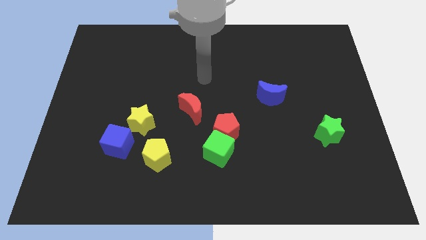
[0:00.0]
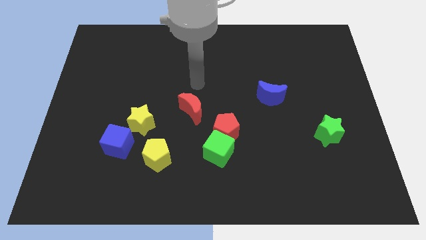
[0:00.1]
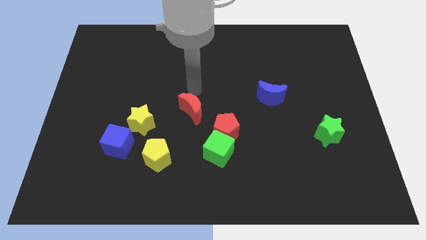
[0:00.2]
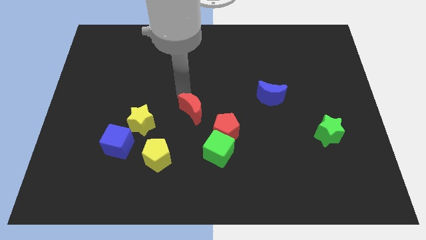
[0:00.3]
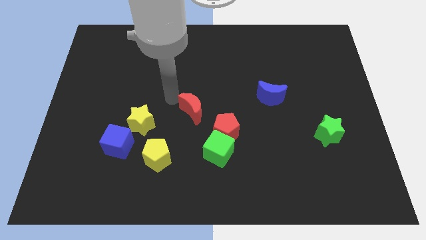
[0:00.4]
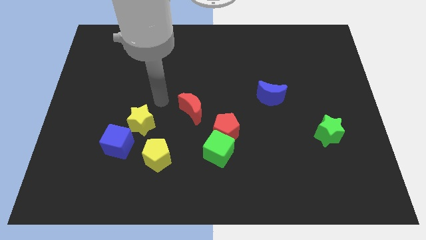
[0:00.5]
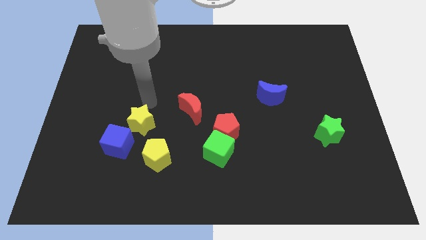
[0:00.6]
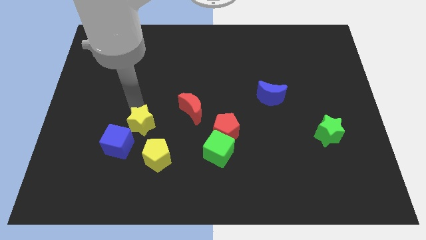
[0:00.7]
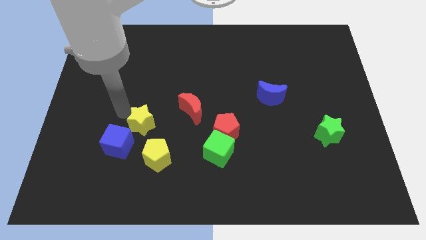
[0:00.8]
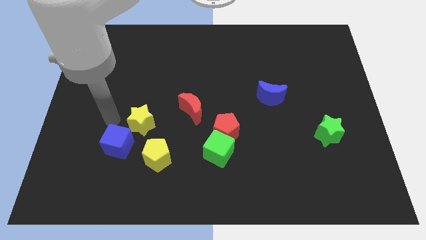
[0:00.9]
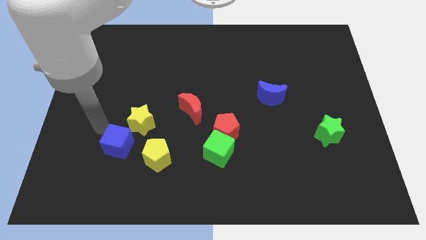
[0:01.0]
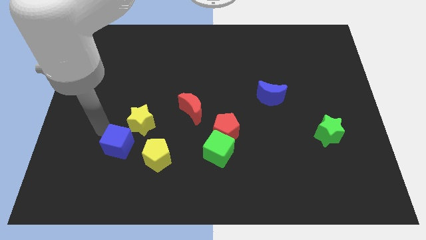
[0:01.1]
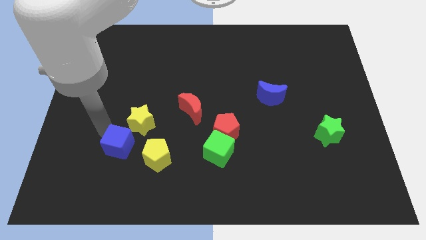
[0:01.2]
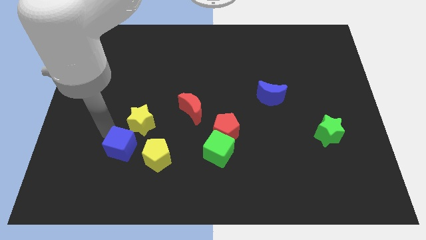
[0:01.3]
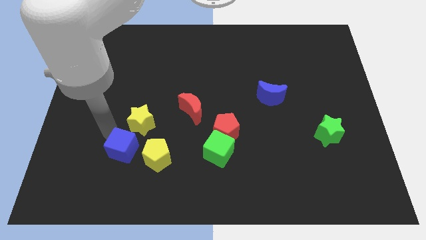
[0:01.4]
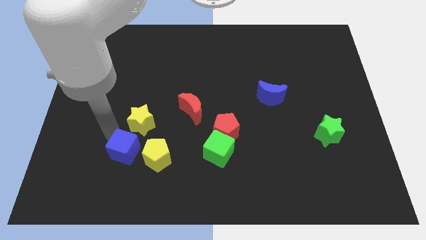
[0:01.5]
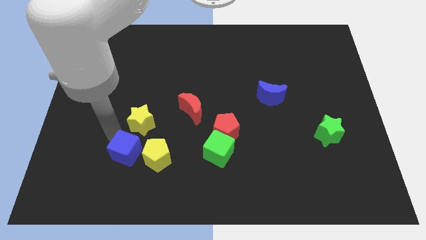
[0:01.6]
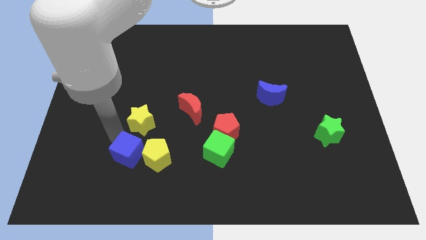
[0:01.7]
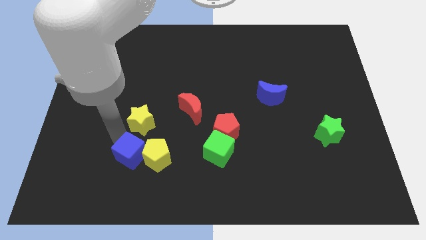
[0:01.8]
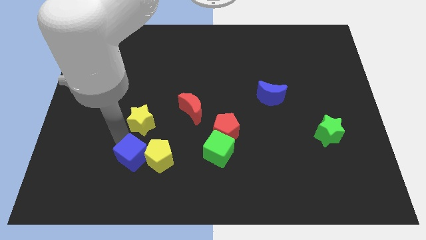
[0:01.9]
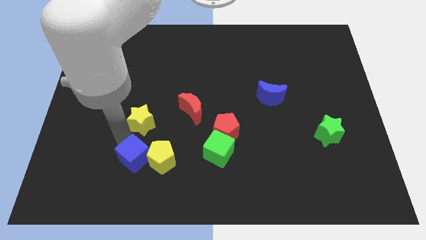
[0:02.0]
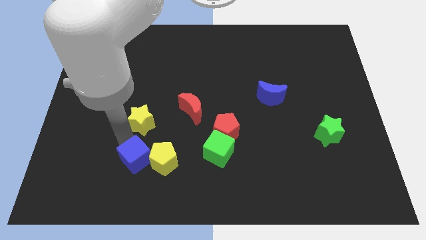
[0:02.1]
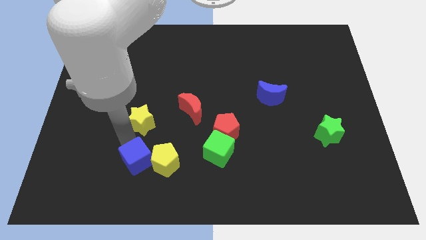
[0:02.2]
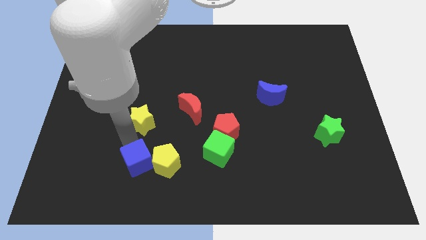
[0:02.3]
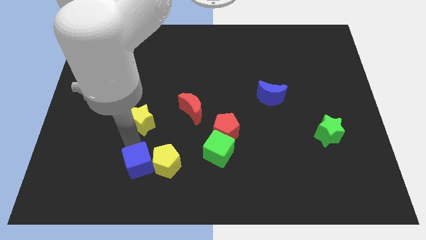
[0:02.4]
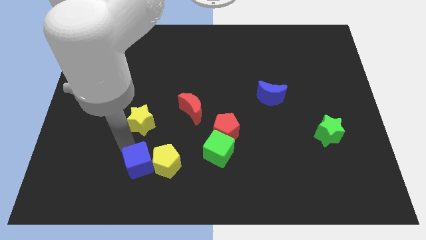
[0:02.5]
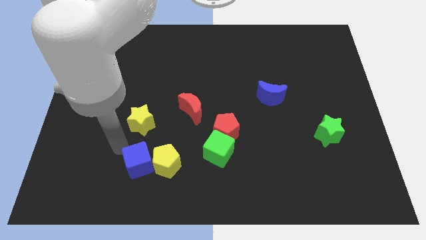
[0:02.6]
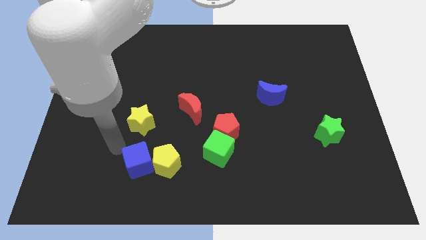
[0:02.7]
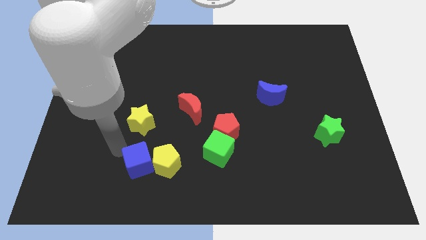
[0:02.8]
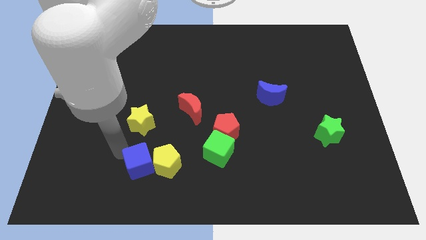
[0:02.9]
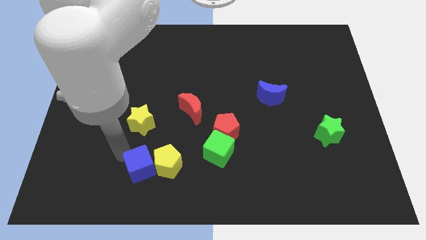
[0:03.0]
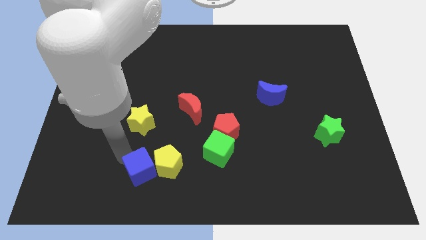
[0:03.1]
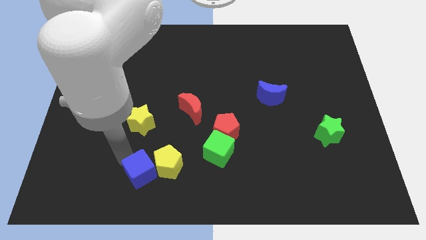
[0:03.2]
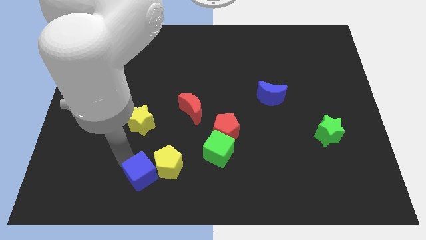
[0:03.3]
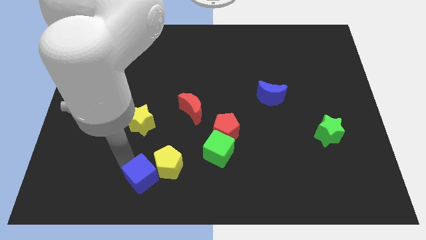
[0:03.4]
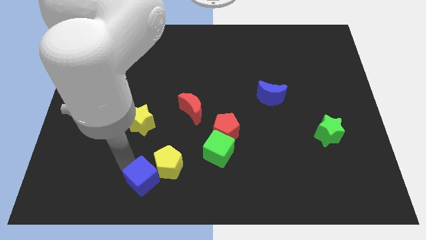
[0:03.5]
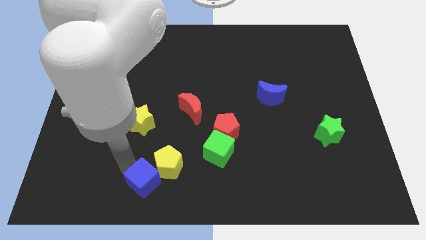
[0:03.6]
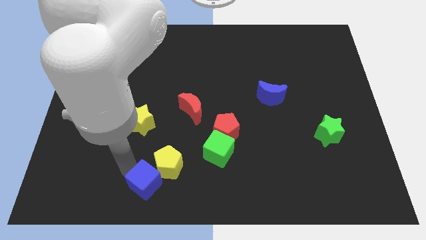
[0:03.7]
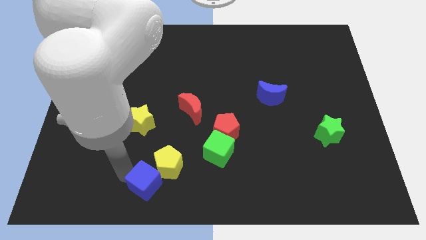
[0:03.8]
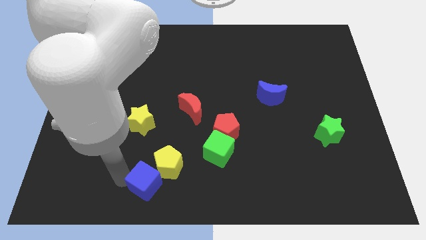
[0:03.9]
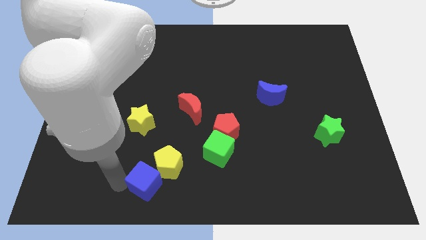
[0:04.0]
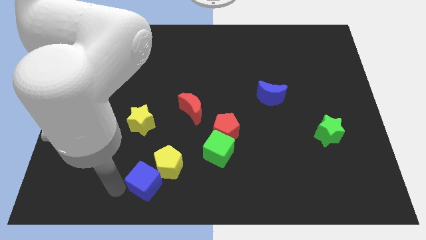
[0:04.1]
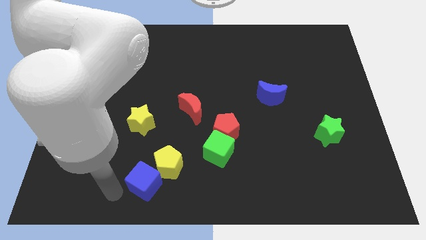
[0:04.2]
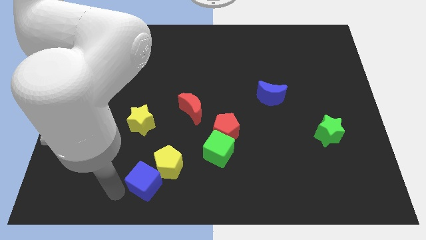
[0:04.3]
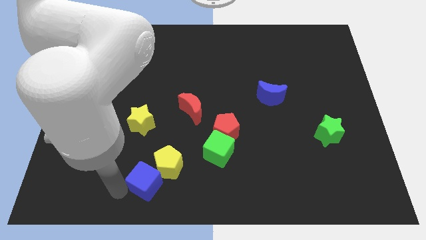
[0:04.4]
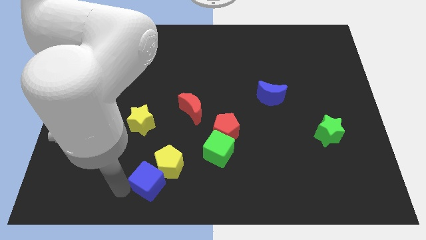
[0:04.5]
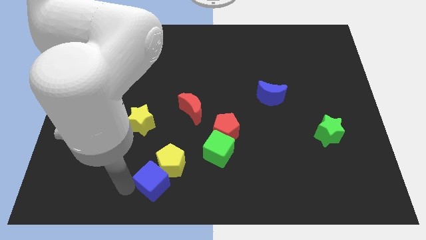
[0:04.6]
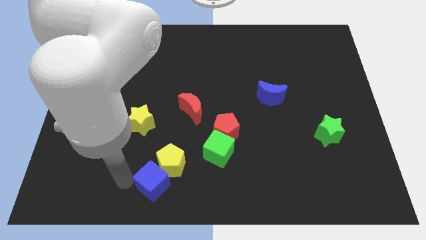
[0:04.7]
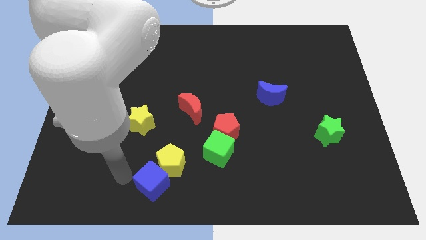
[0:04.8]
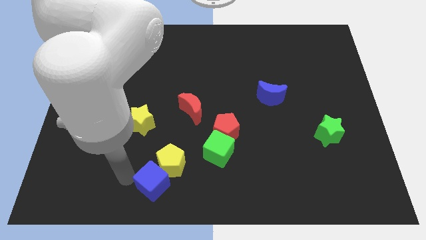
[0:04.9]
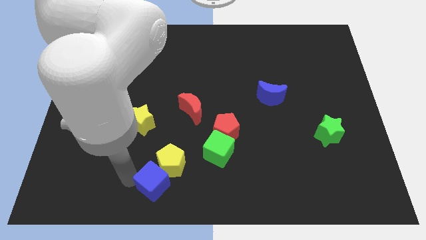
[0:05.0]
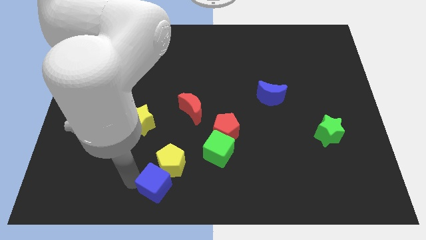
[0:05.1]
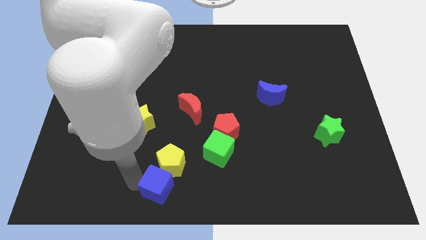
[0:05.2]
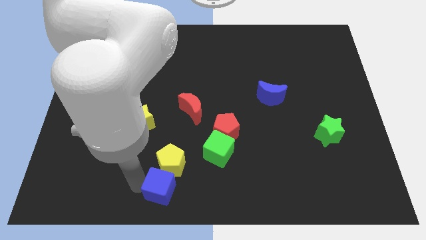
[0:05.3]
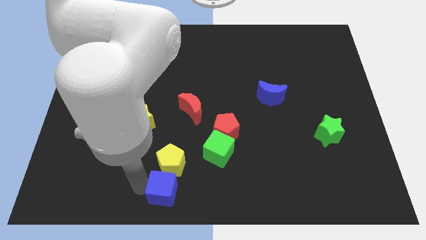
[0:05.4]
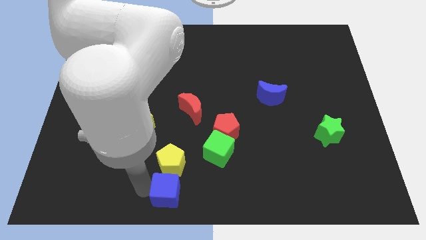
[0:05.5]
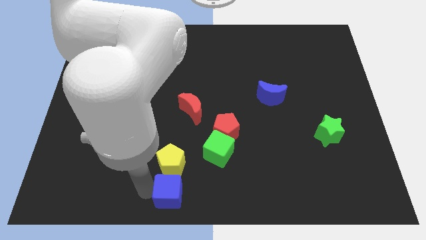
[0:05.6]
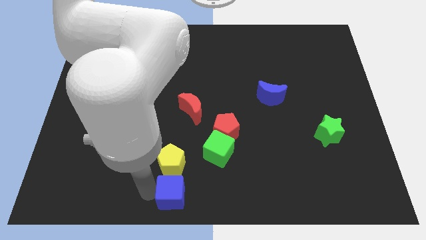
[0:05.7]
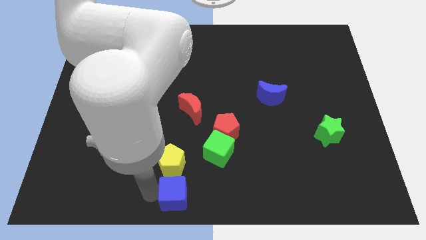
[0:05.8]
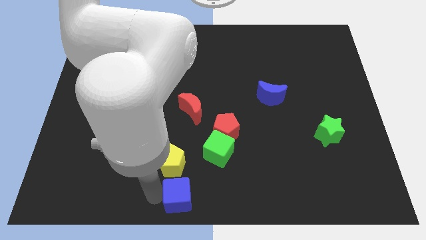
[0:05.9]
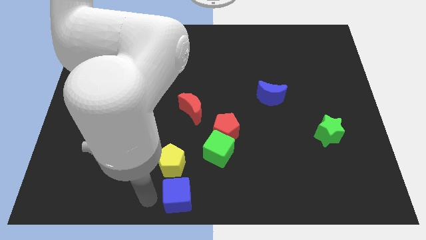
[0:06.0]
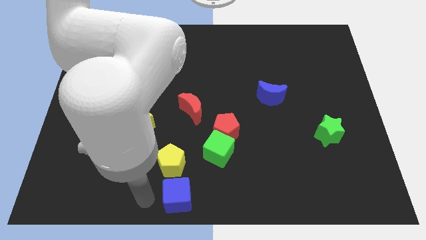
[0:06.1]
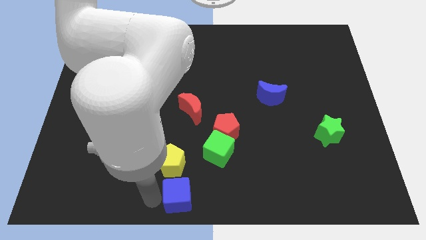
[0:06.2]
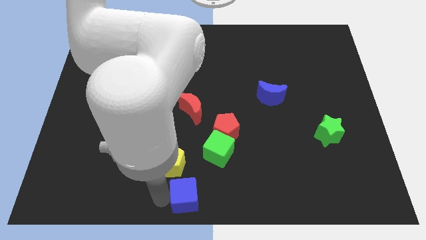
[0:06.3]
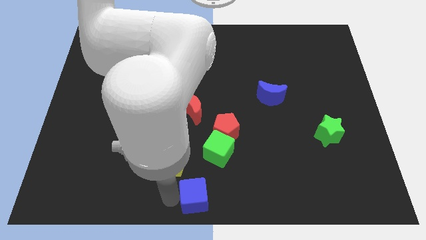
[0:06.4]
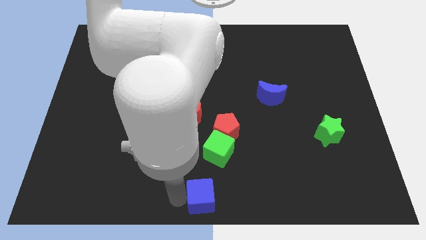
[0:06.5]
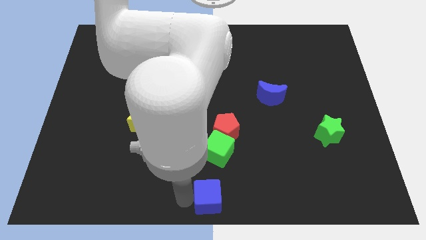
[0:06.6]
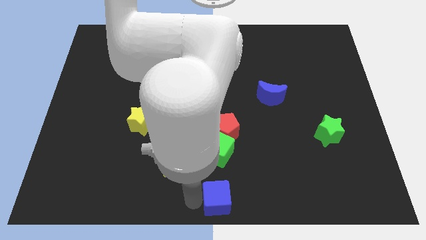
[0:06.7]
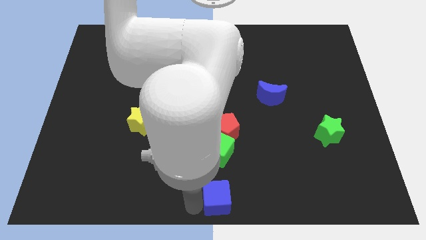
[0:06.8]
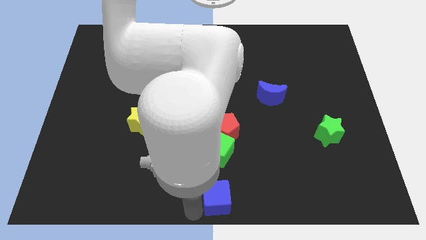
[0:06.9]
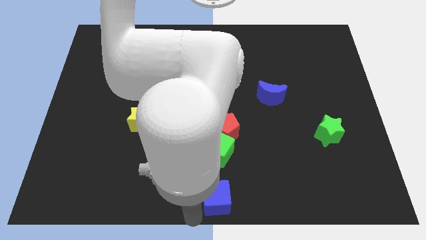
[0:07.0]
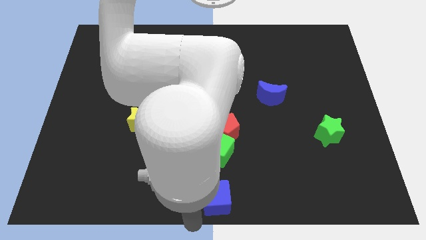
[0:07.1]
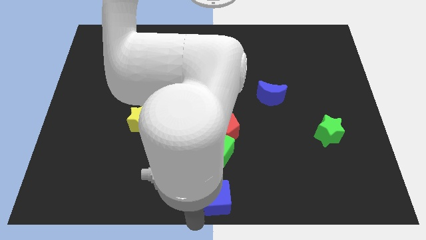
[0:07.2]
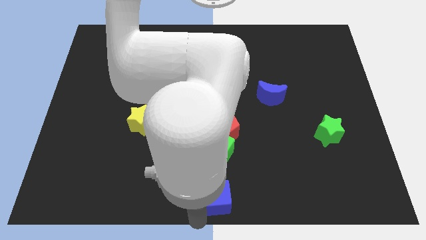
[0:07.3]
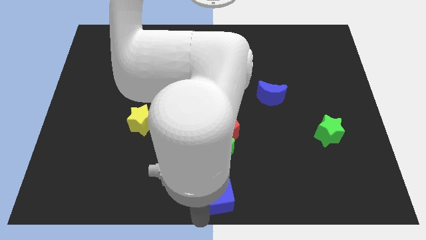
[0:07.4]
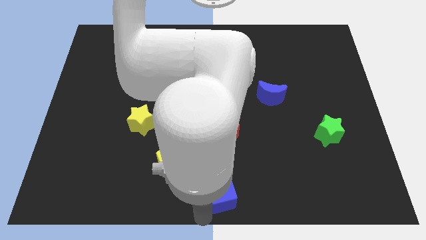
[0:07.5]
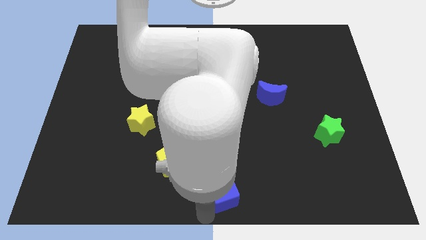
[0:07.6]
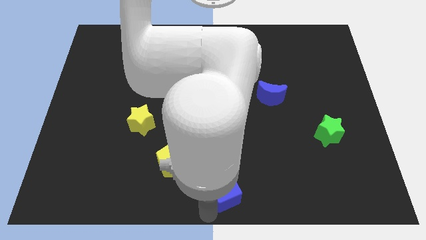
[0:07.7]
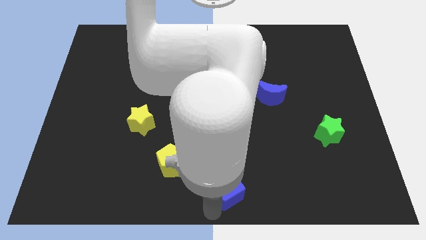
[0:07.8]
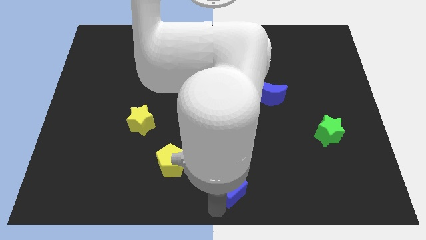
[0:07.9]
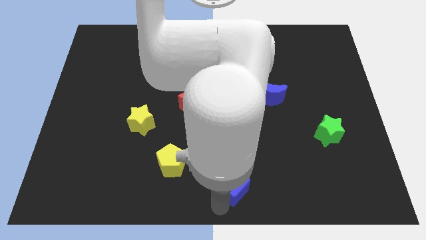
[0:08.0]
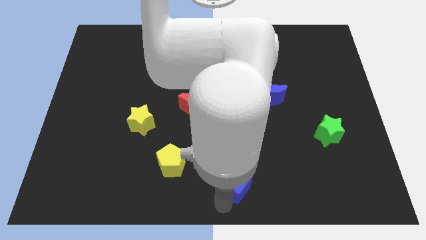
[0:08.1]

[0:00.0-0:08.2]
push the blue cube to the right
